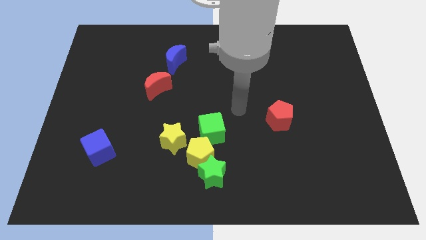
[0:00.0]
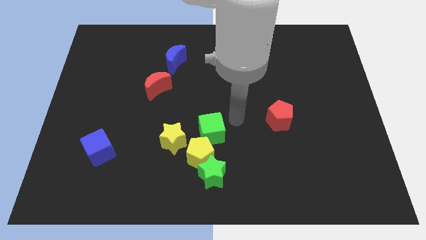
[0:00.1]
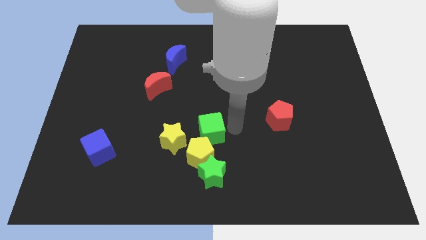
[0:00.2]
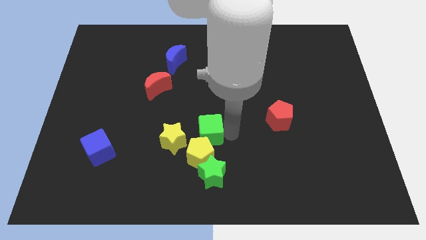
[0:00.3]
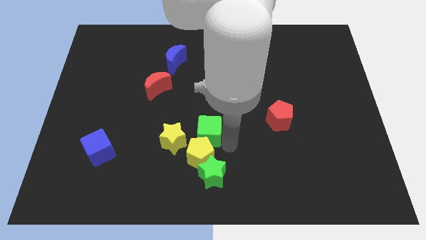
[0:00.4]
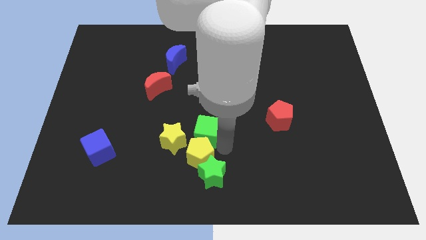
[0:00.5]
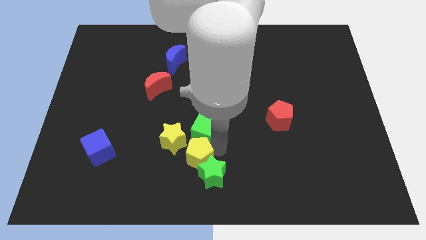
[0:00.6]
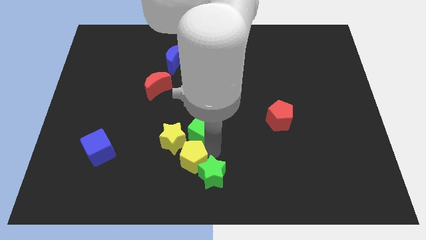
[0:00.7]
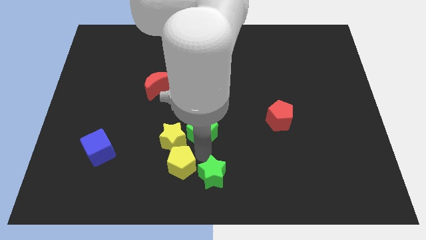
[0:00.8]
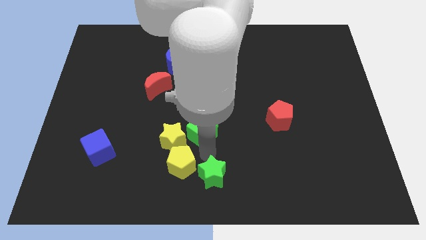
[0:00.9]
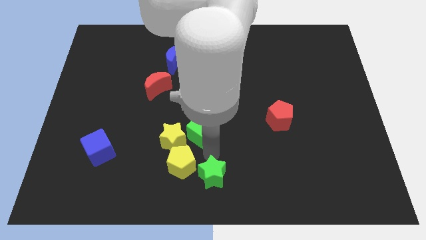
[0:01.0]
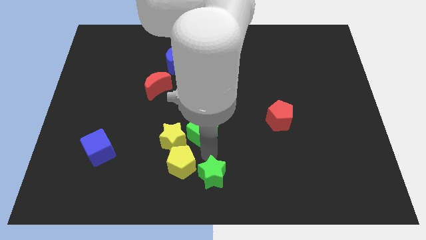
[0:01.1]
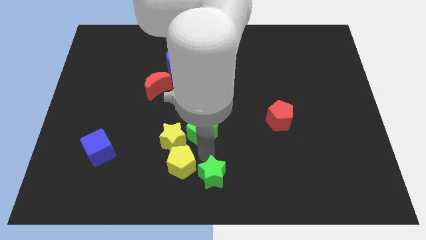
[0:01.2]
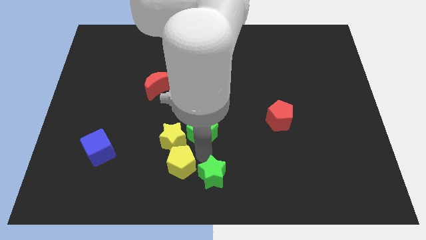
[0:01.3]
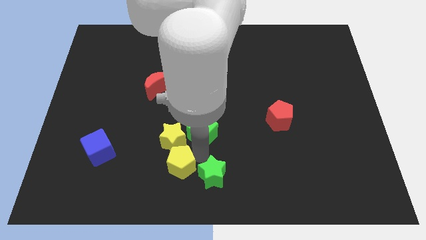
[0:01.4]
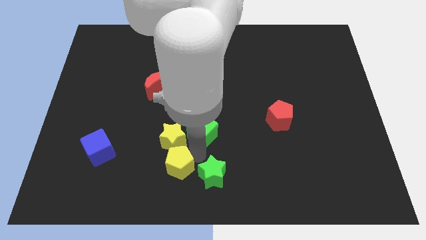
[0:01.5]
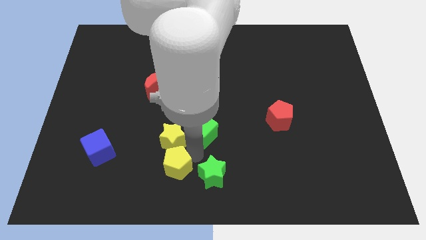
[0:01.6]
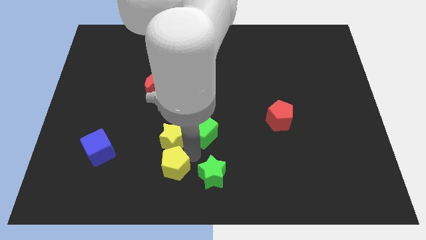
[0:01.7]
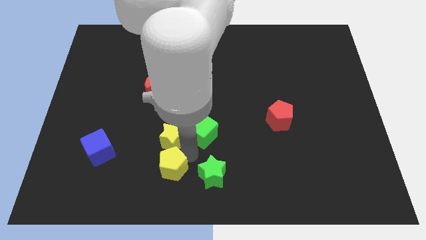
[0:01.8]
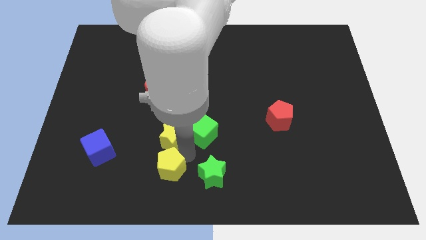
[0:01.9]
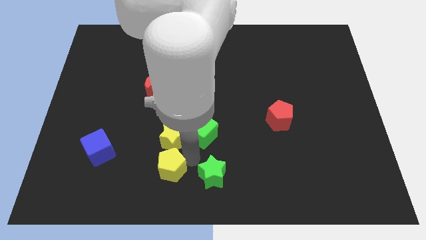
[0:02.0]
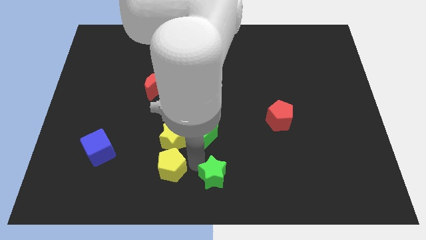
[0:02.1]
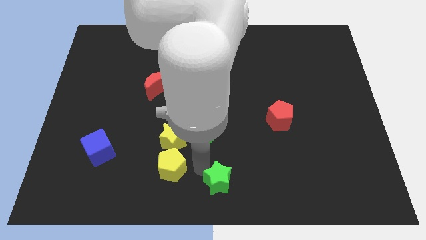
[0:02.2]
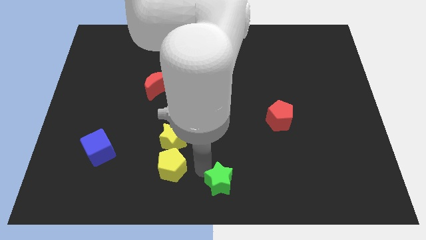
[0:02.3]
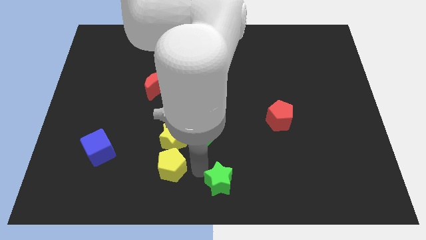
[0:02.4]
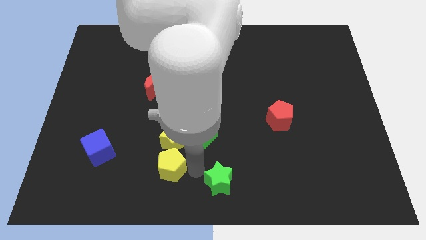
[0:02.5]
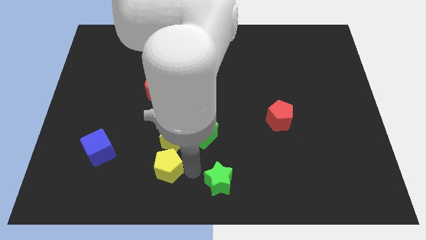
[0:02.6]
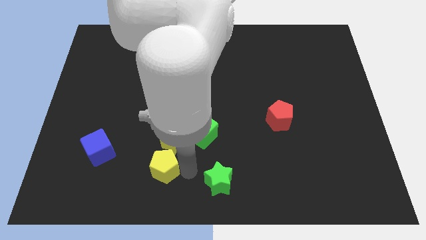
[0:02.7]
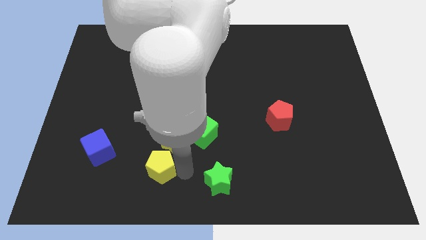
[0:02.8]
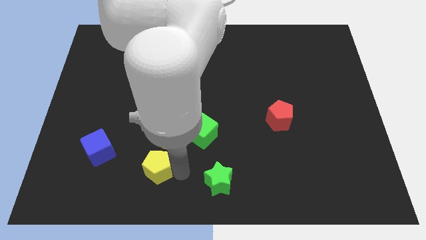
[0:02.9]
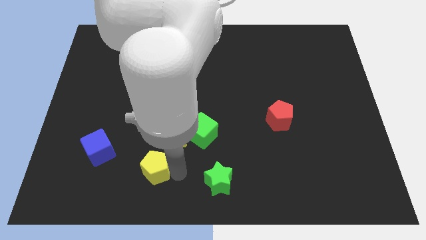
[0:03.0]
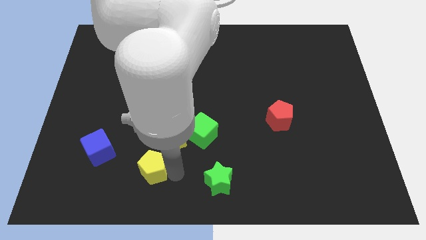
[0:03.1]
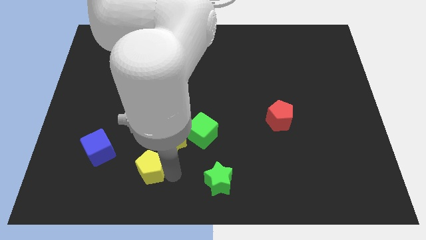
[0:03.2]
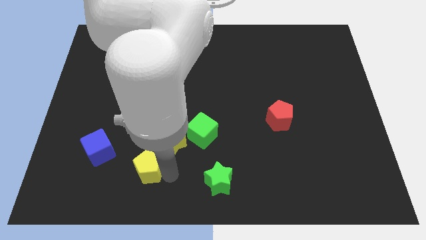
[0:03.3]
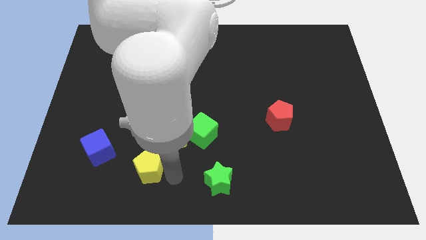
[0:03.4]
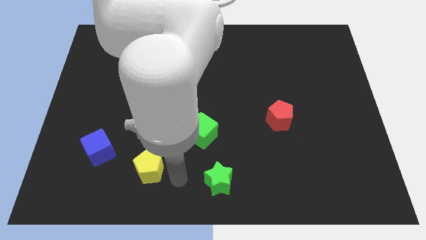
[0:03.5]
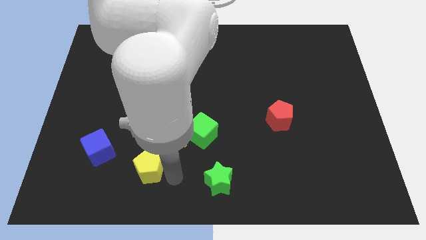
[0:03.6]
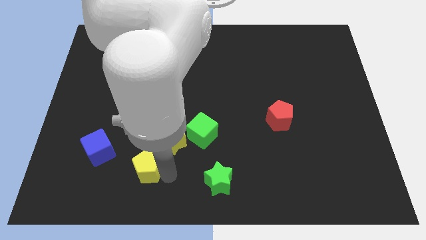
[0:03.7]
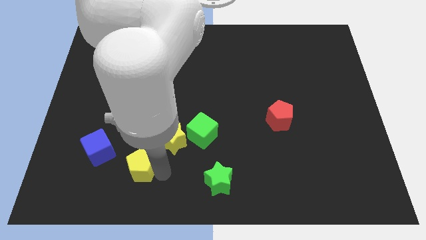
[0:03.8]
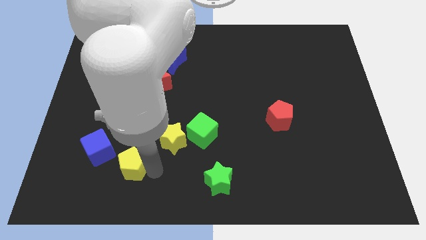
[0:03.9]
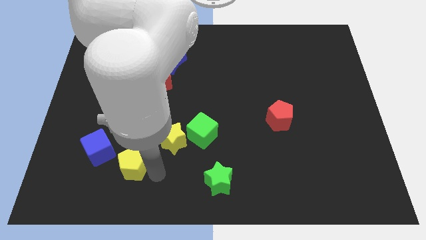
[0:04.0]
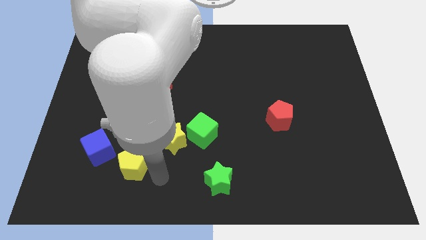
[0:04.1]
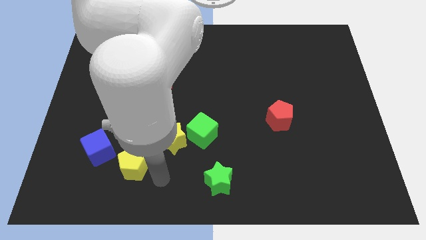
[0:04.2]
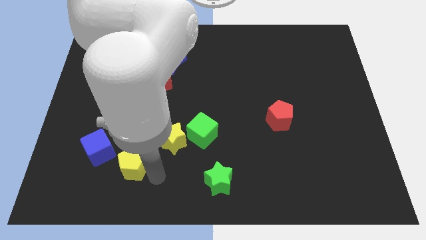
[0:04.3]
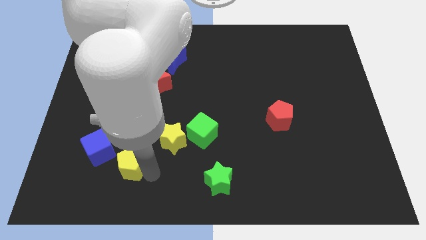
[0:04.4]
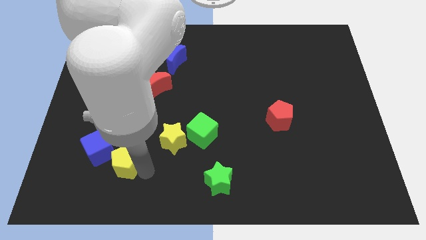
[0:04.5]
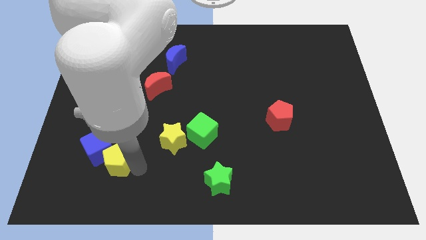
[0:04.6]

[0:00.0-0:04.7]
push the yellow pentagon close to the blue cube

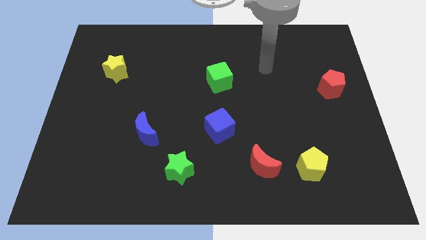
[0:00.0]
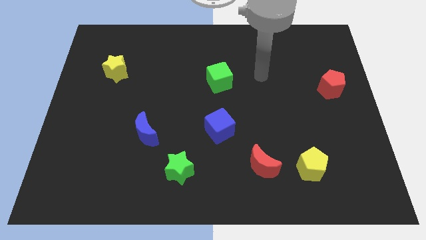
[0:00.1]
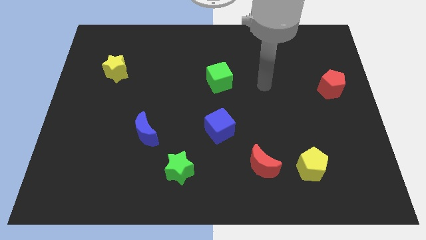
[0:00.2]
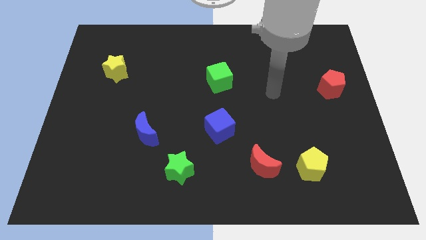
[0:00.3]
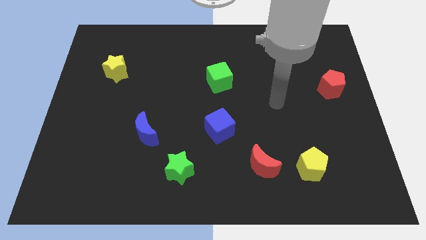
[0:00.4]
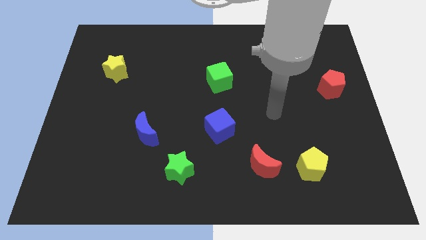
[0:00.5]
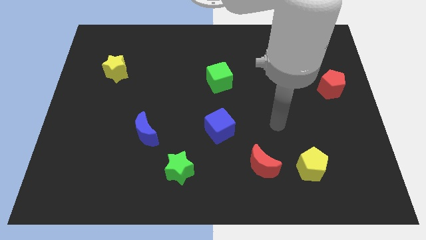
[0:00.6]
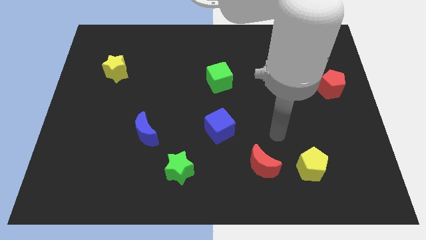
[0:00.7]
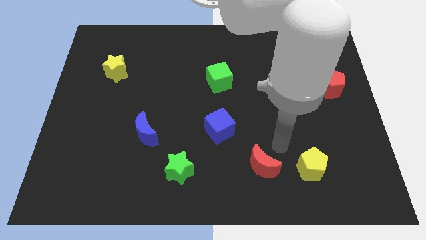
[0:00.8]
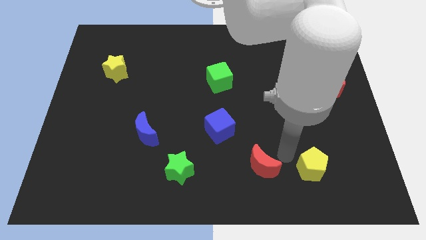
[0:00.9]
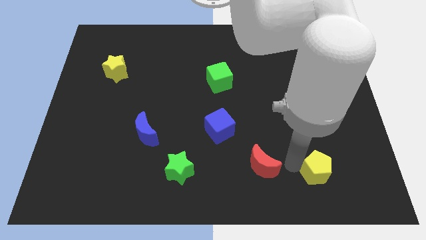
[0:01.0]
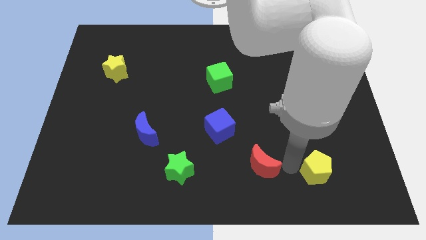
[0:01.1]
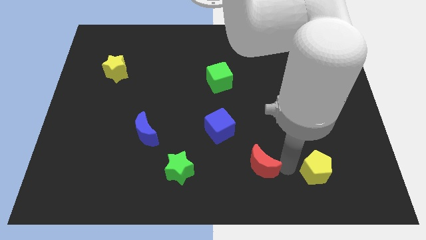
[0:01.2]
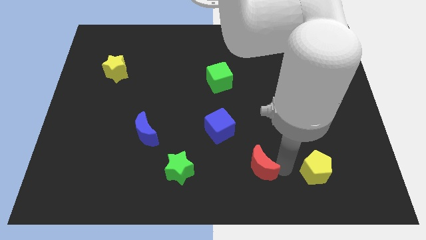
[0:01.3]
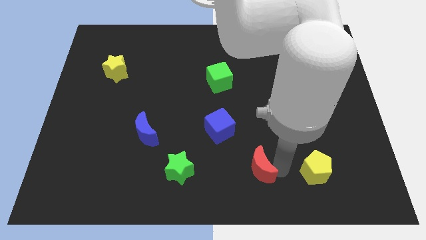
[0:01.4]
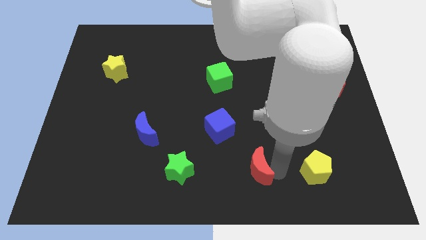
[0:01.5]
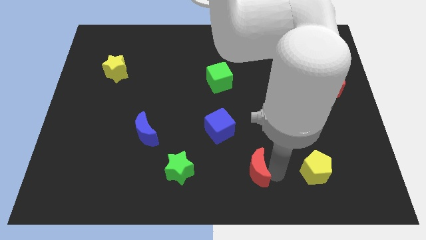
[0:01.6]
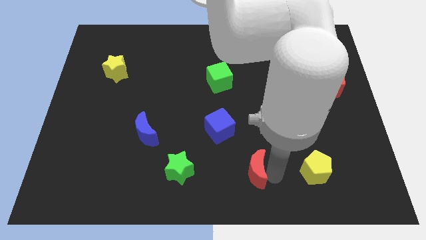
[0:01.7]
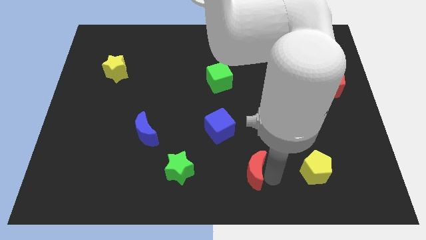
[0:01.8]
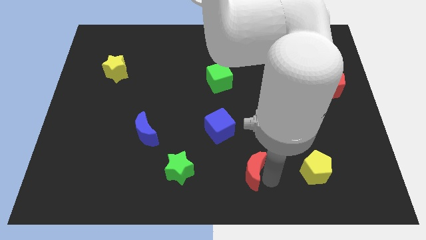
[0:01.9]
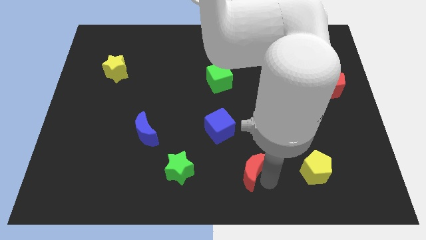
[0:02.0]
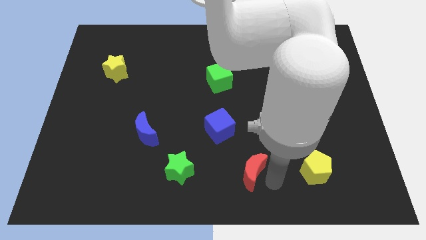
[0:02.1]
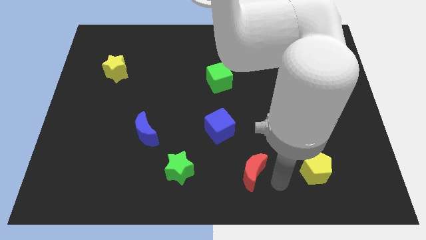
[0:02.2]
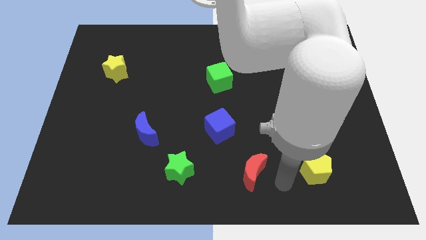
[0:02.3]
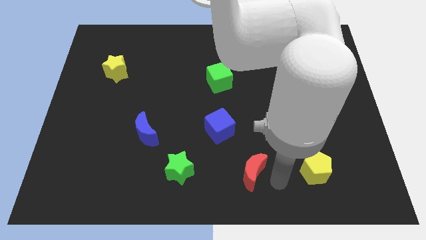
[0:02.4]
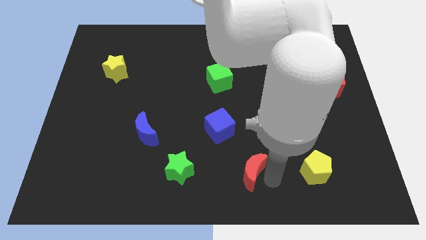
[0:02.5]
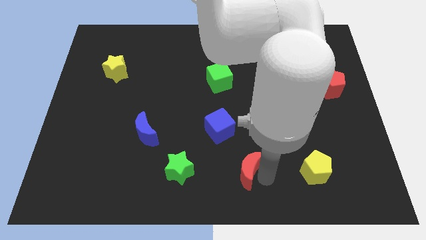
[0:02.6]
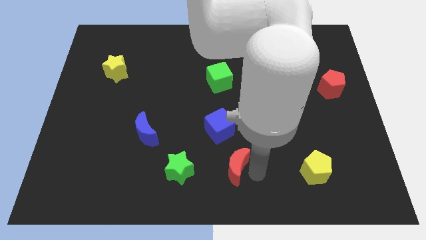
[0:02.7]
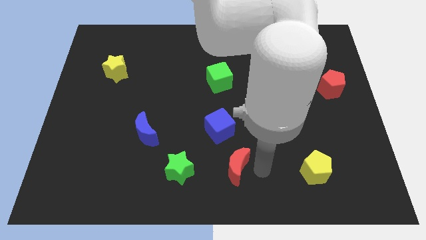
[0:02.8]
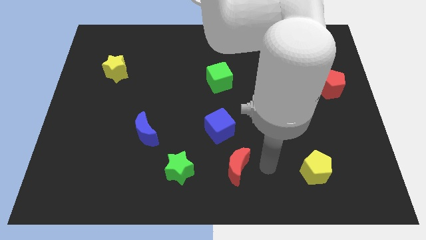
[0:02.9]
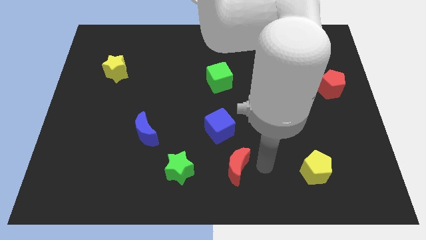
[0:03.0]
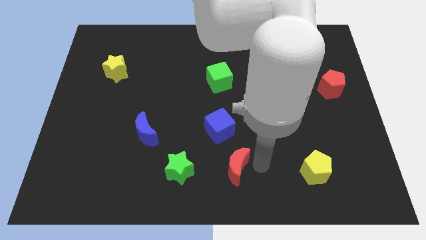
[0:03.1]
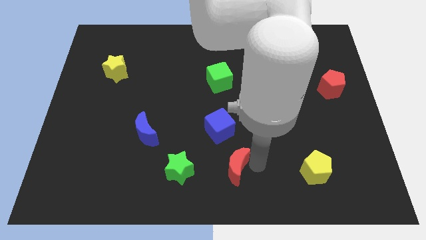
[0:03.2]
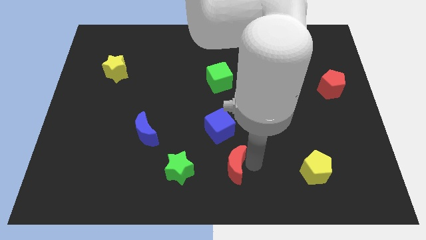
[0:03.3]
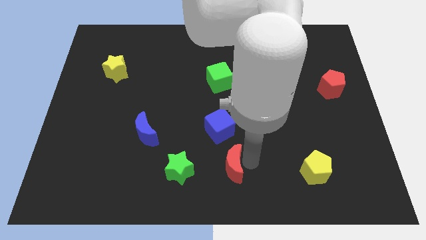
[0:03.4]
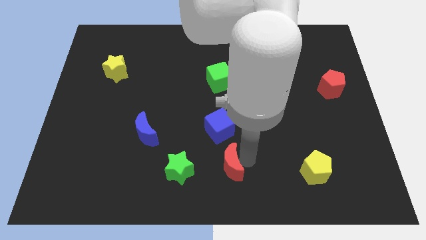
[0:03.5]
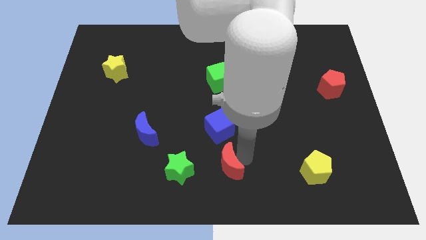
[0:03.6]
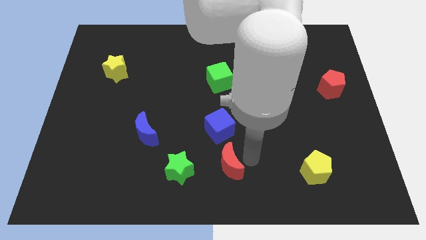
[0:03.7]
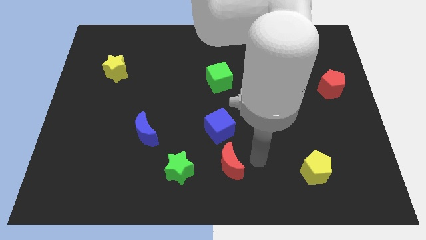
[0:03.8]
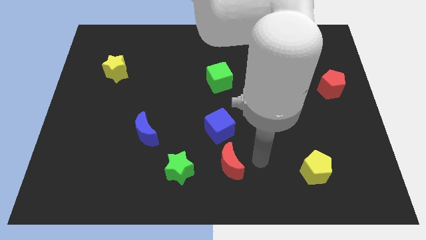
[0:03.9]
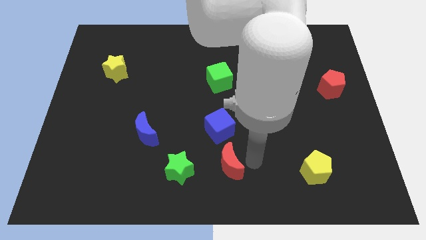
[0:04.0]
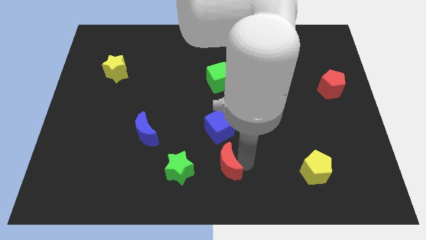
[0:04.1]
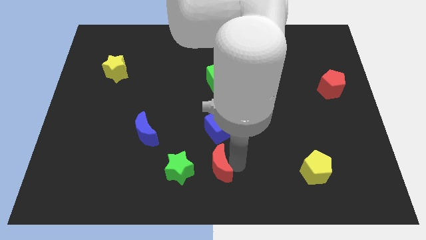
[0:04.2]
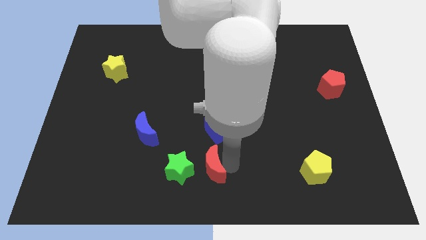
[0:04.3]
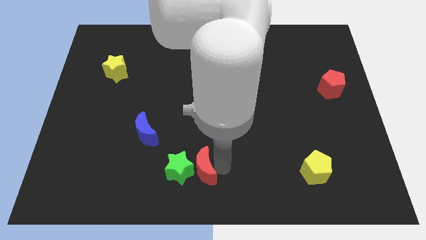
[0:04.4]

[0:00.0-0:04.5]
slide the red moon next to the green star
